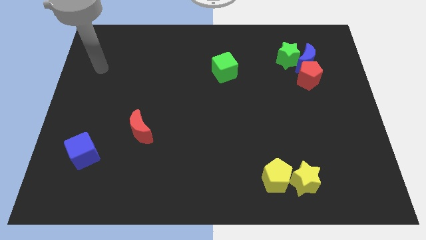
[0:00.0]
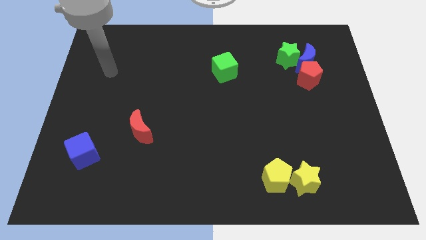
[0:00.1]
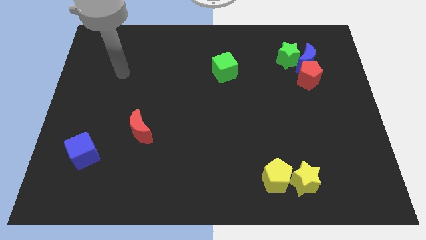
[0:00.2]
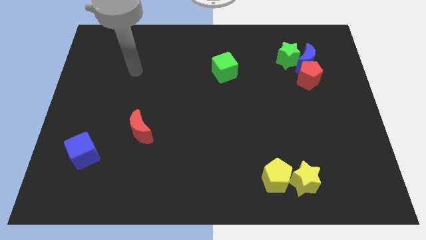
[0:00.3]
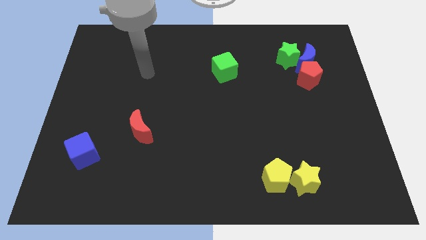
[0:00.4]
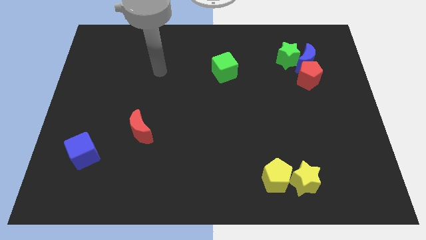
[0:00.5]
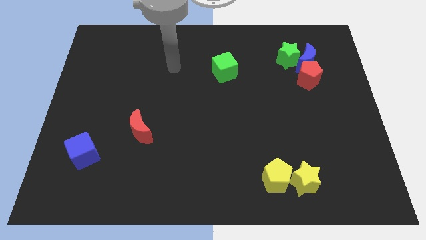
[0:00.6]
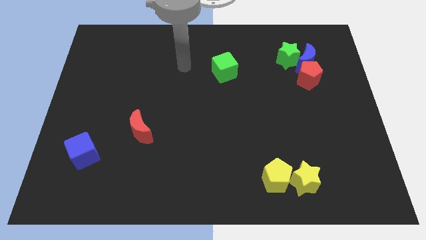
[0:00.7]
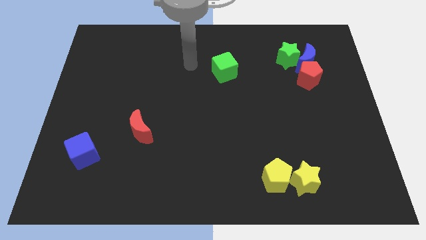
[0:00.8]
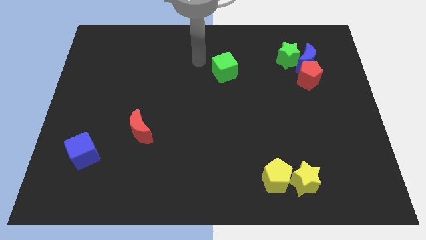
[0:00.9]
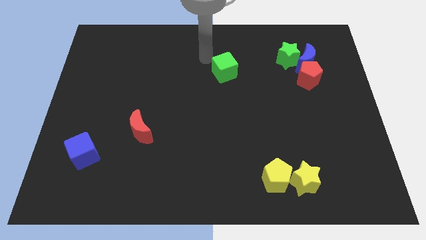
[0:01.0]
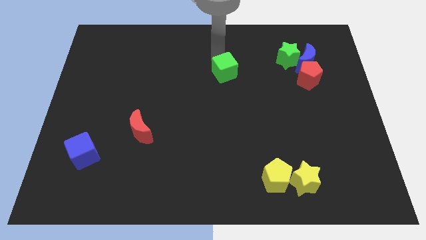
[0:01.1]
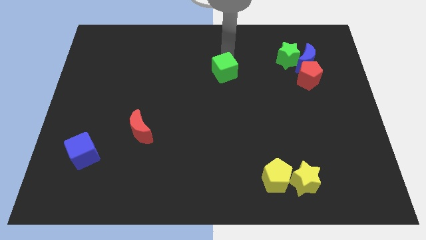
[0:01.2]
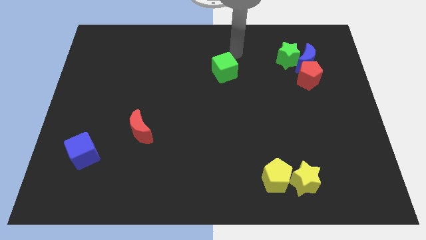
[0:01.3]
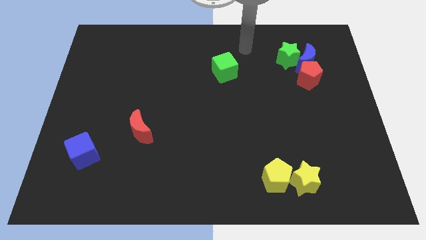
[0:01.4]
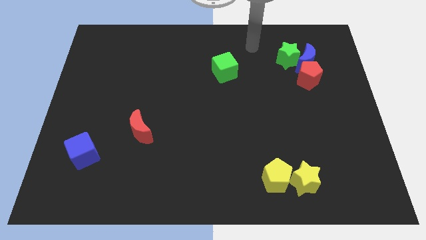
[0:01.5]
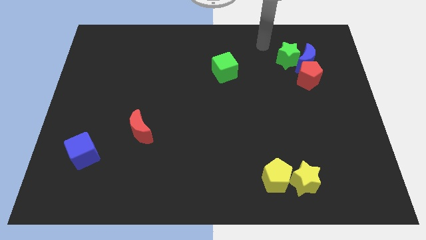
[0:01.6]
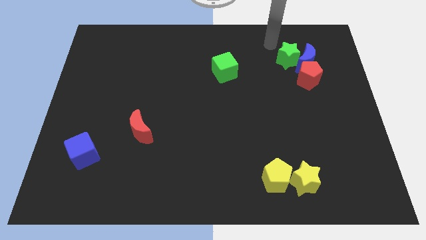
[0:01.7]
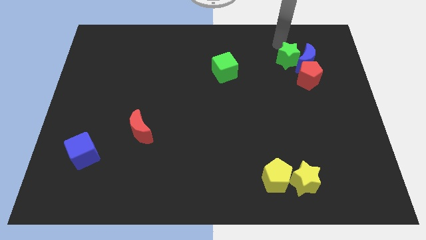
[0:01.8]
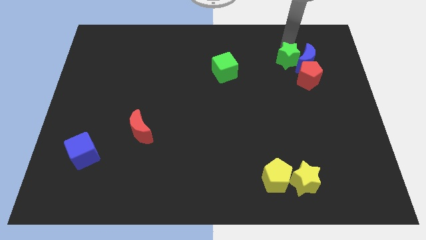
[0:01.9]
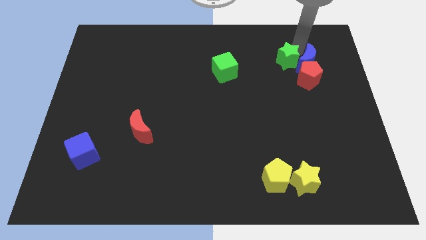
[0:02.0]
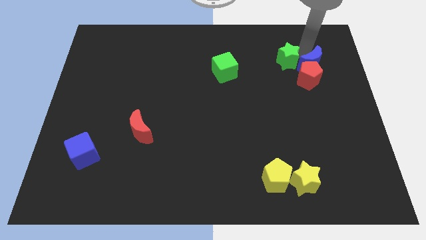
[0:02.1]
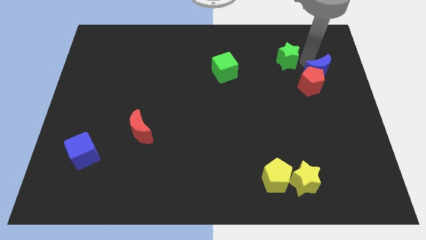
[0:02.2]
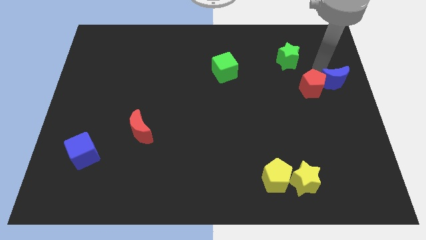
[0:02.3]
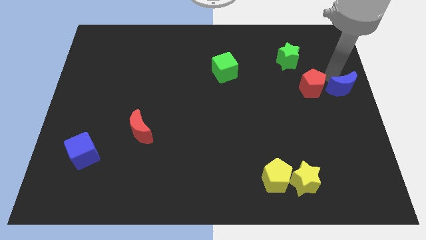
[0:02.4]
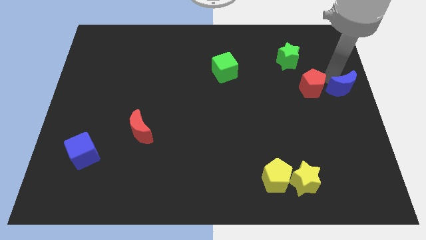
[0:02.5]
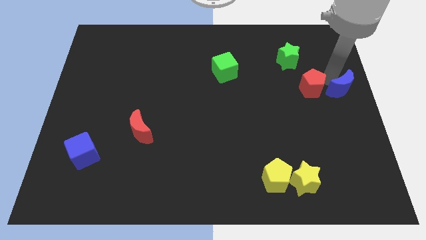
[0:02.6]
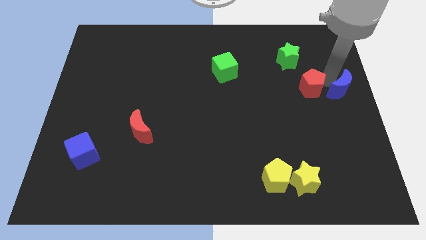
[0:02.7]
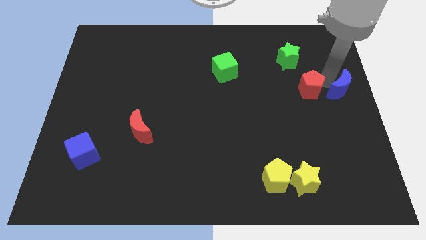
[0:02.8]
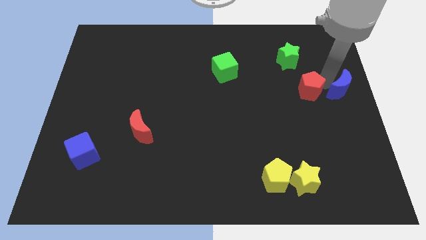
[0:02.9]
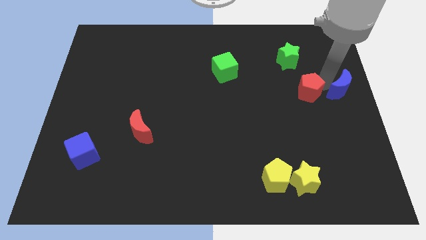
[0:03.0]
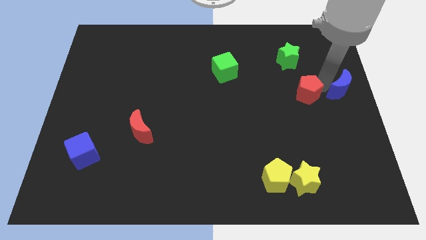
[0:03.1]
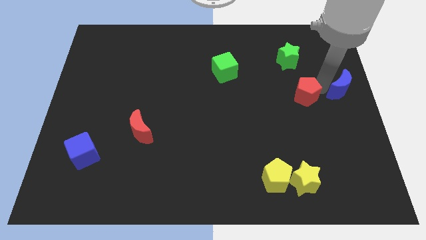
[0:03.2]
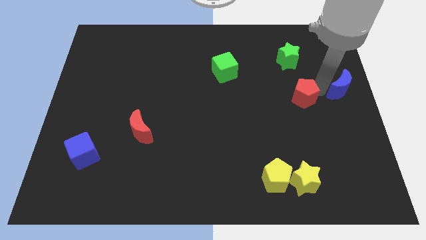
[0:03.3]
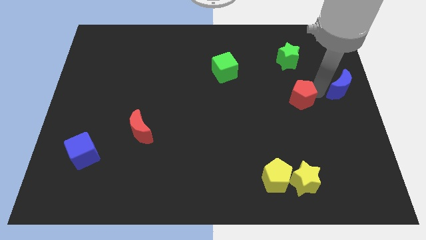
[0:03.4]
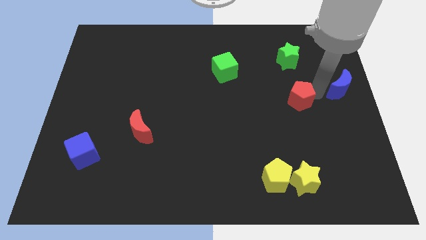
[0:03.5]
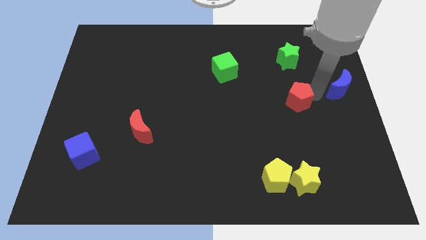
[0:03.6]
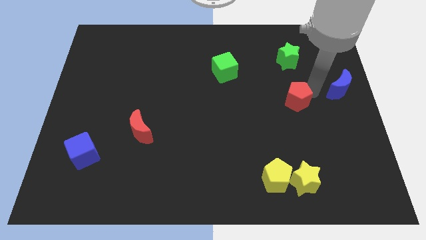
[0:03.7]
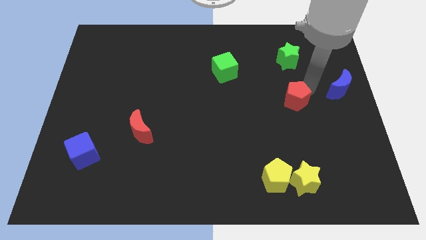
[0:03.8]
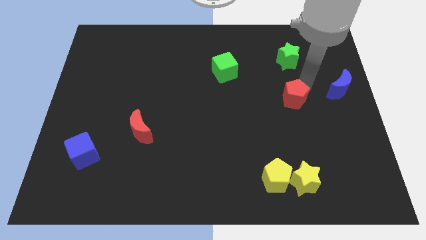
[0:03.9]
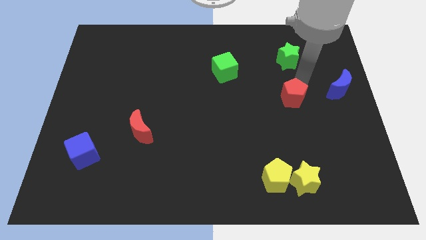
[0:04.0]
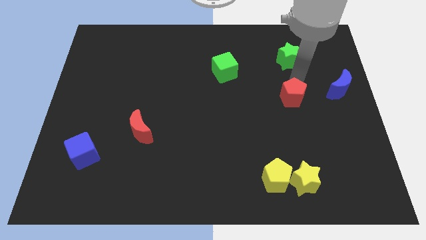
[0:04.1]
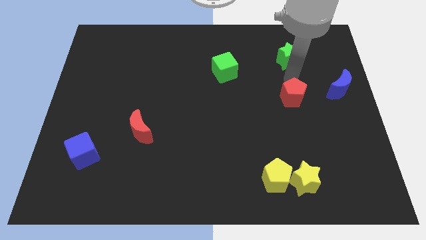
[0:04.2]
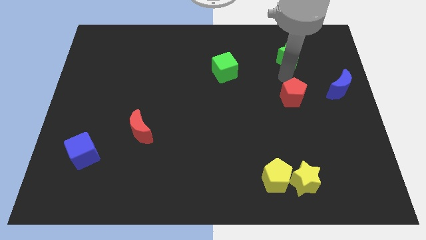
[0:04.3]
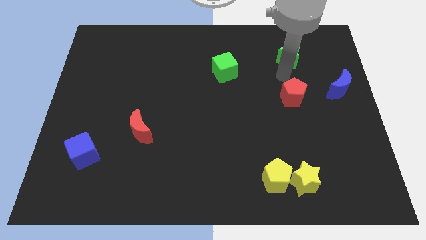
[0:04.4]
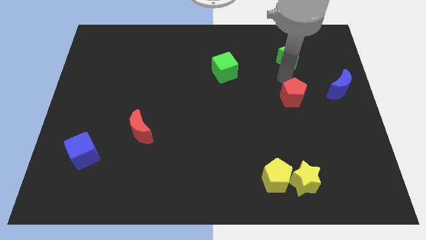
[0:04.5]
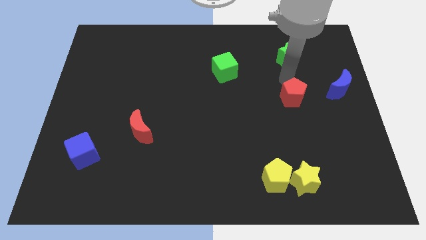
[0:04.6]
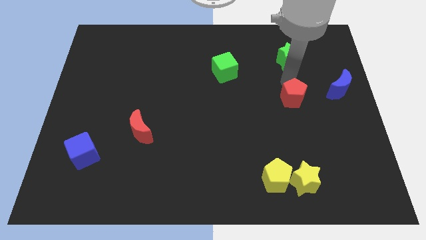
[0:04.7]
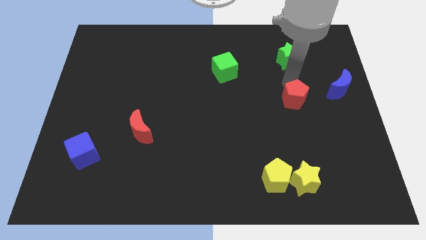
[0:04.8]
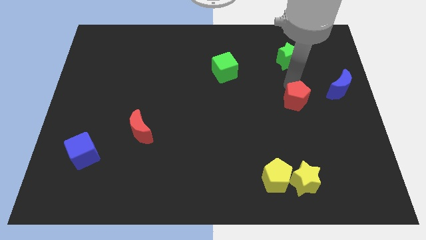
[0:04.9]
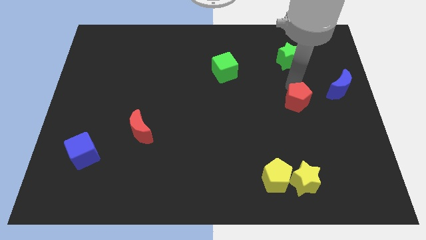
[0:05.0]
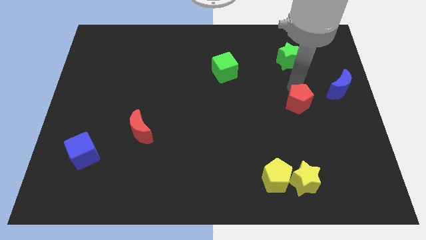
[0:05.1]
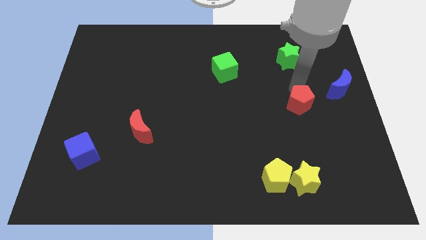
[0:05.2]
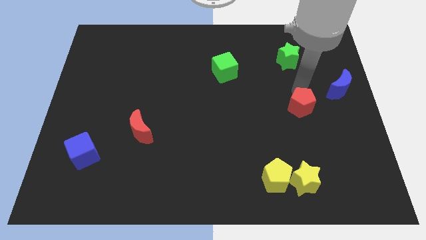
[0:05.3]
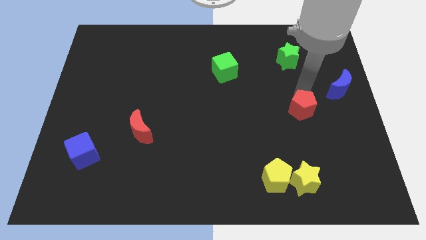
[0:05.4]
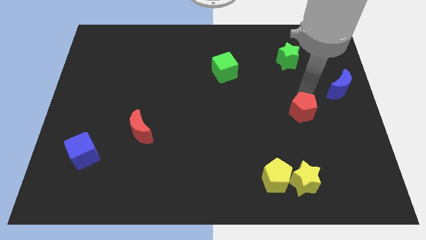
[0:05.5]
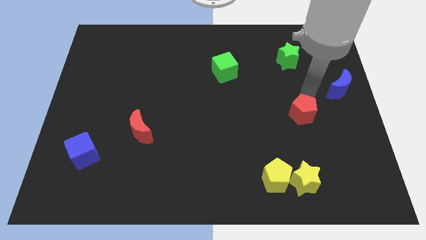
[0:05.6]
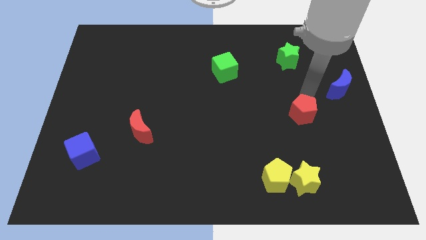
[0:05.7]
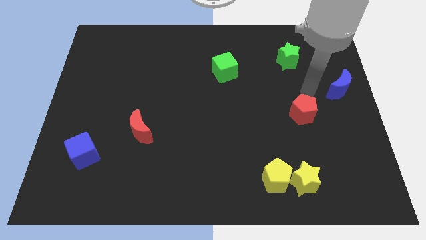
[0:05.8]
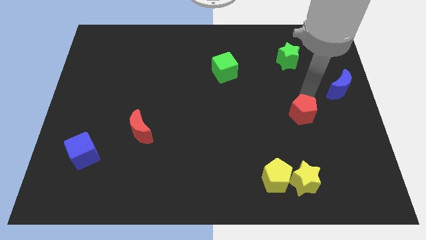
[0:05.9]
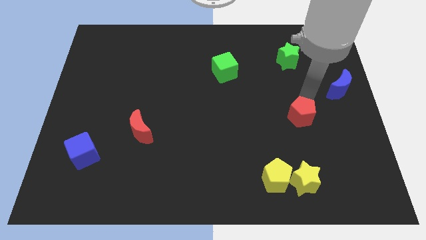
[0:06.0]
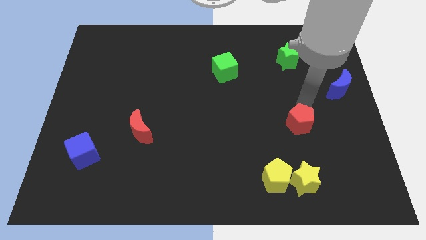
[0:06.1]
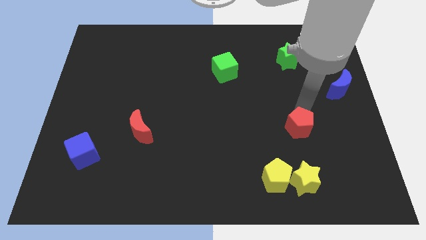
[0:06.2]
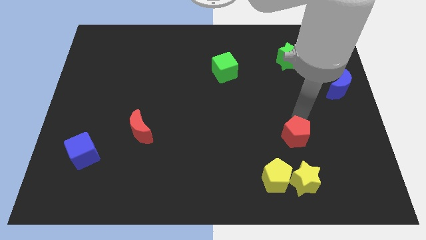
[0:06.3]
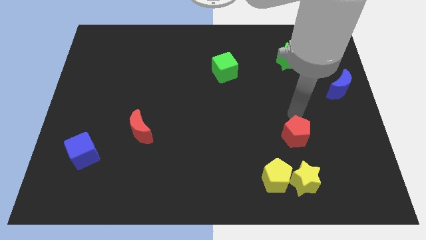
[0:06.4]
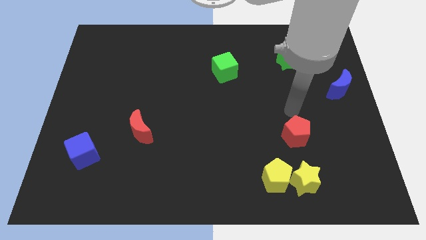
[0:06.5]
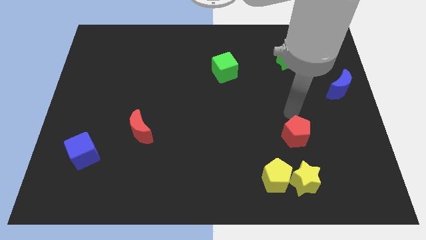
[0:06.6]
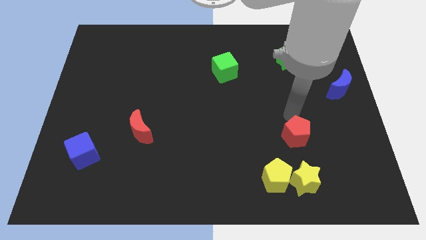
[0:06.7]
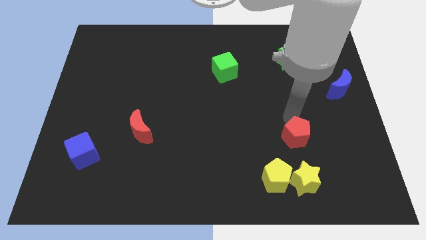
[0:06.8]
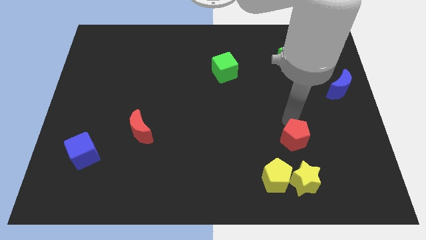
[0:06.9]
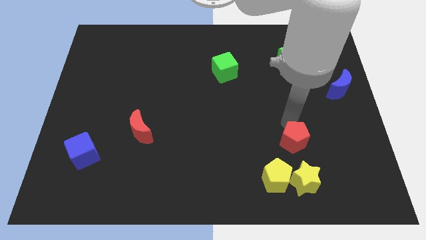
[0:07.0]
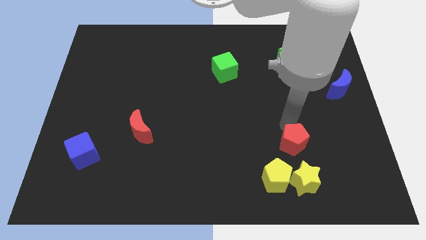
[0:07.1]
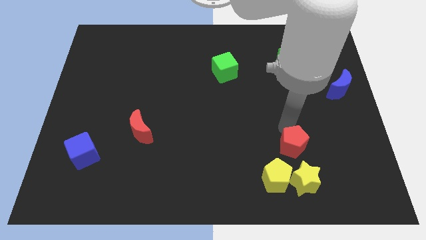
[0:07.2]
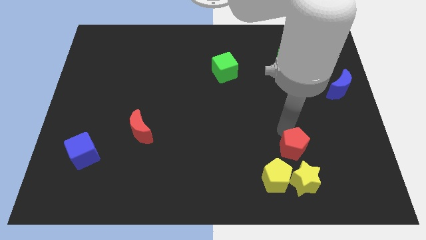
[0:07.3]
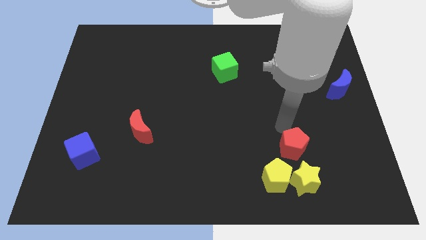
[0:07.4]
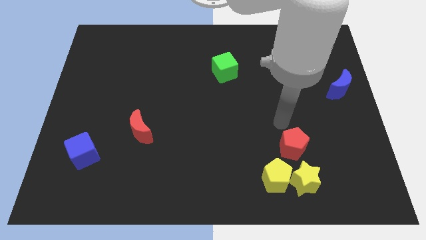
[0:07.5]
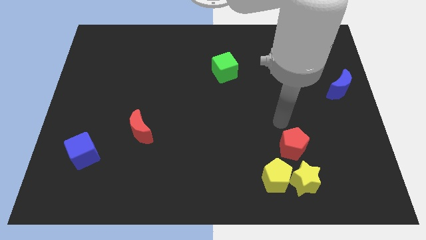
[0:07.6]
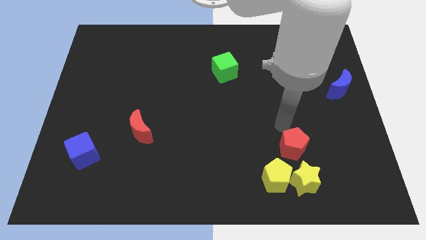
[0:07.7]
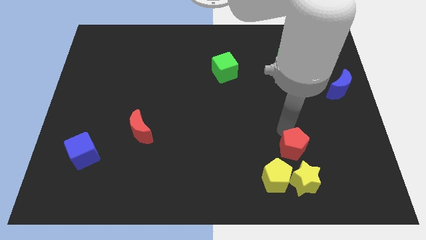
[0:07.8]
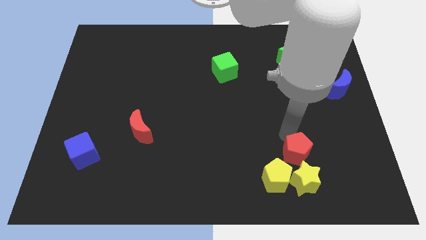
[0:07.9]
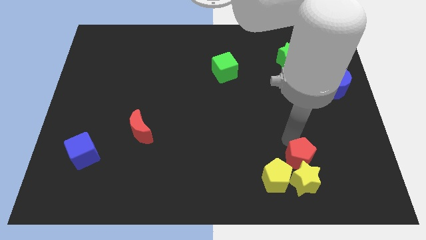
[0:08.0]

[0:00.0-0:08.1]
slide the red pentagon next to the yellow star
